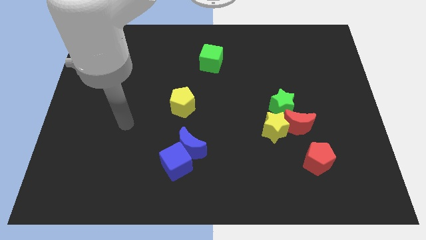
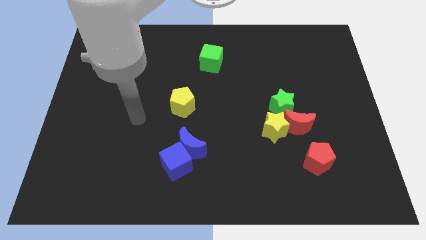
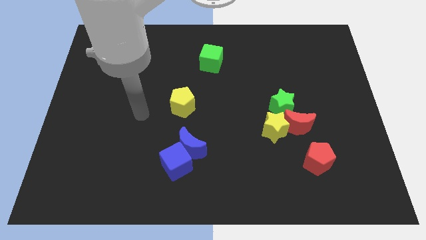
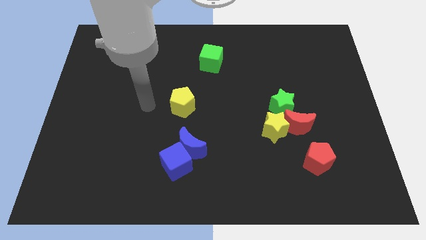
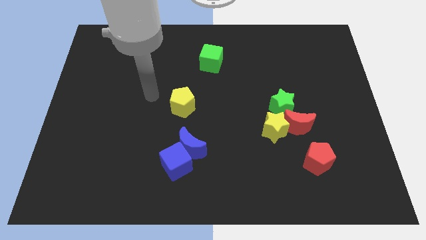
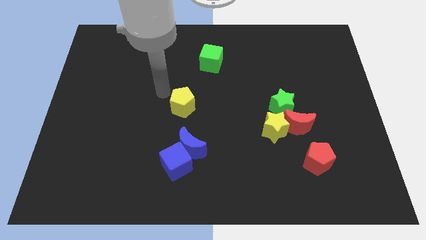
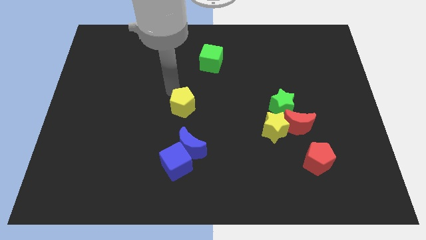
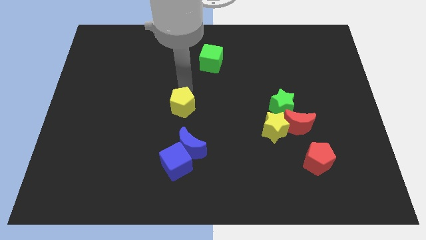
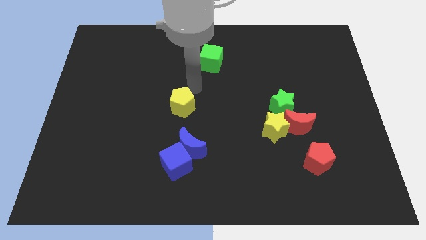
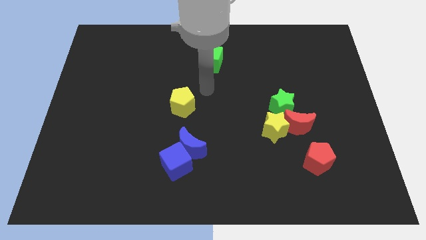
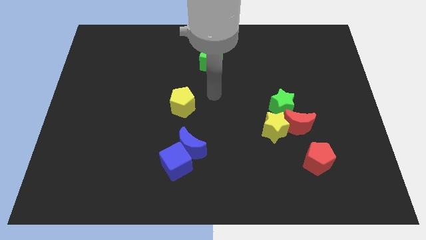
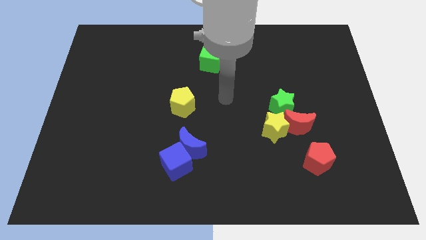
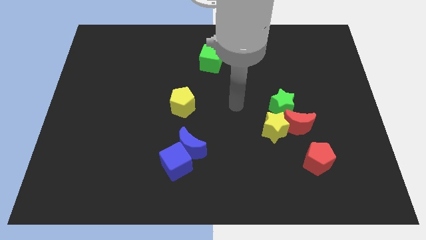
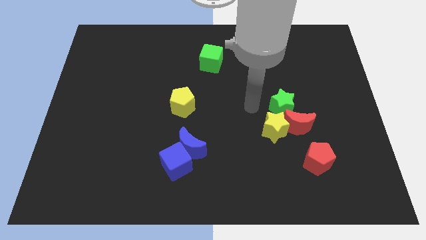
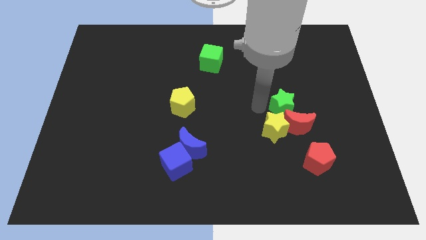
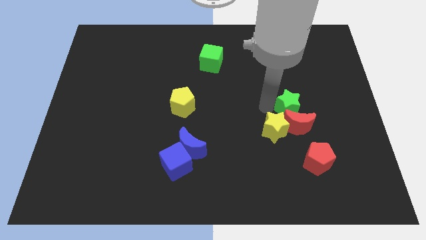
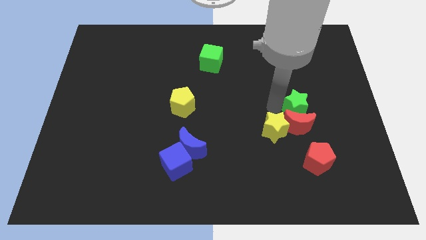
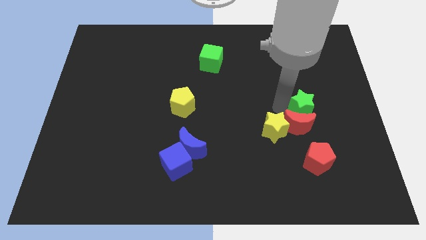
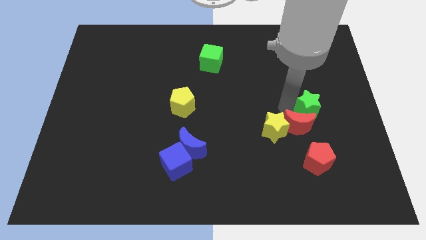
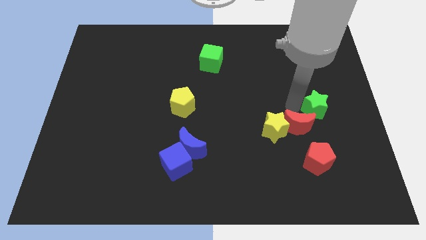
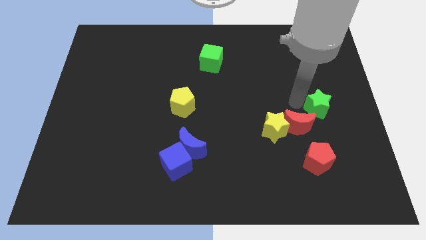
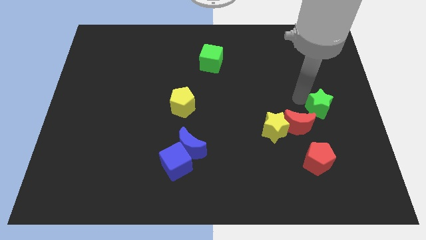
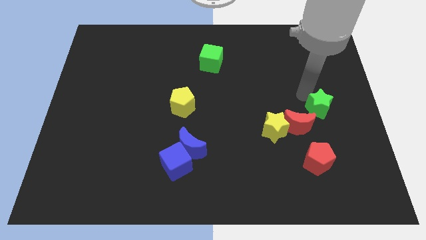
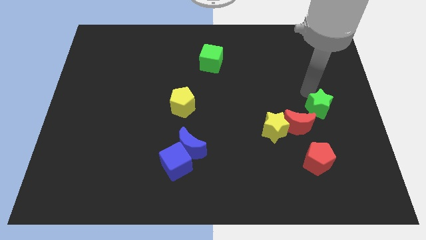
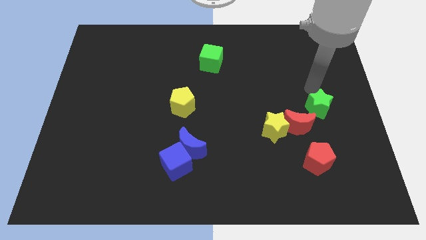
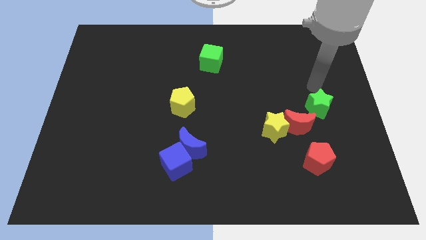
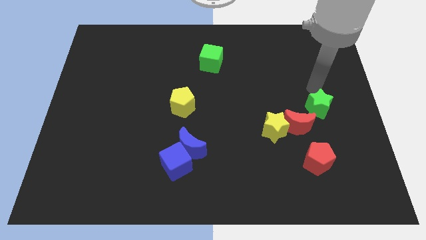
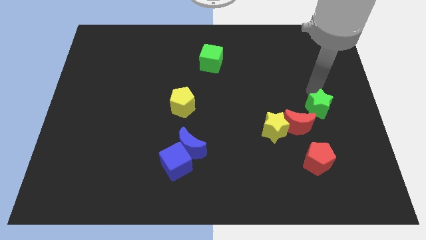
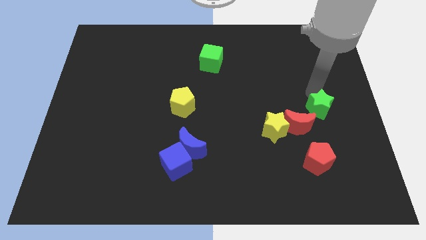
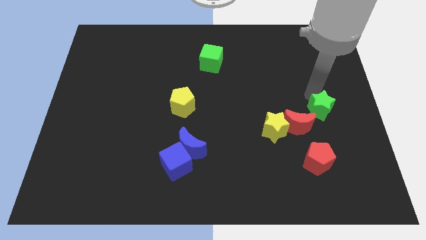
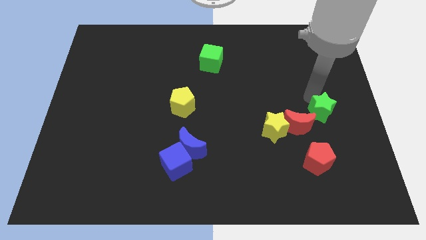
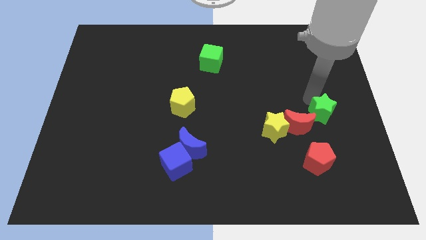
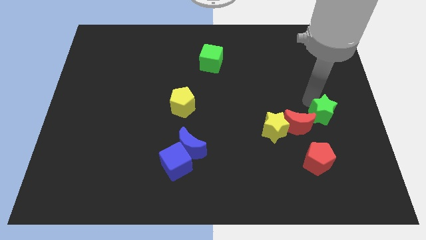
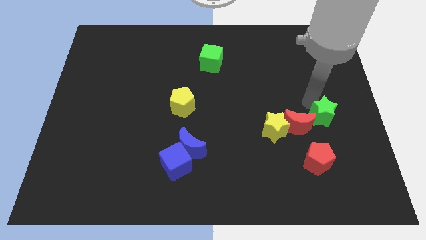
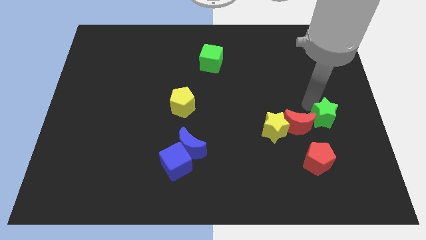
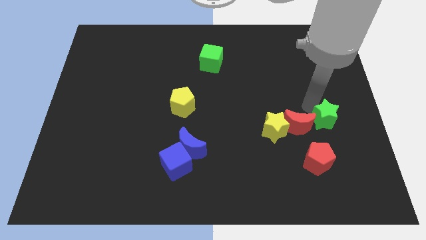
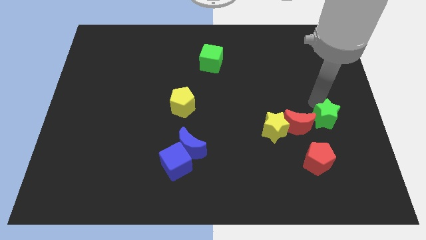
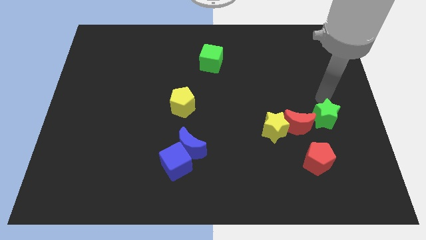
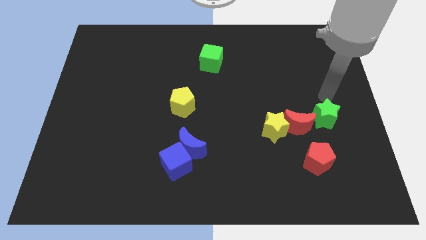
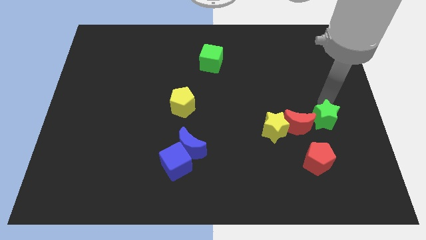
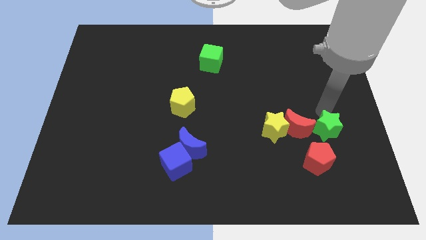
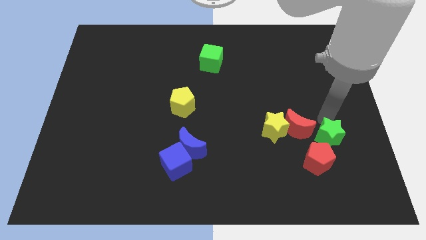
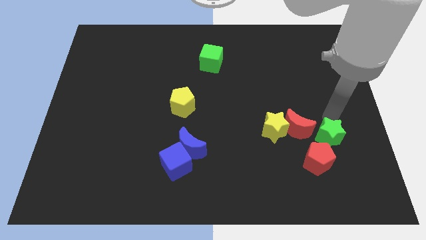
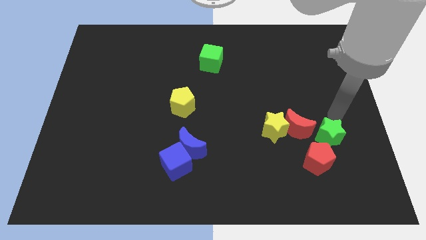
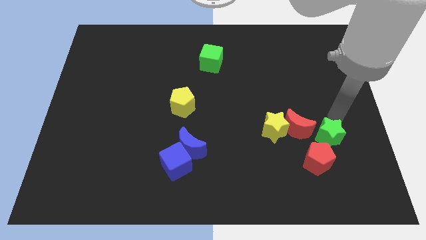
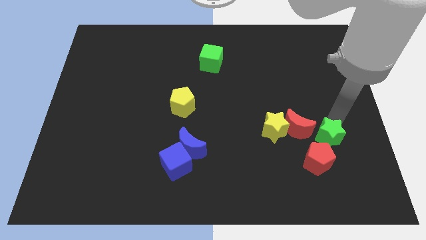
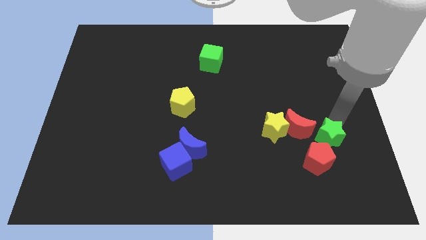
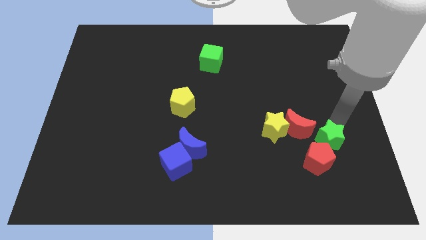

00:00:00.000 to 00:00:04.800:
move the green star towards the red pentagon

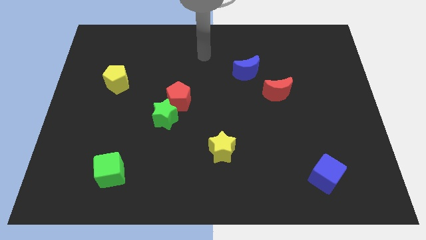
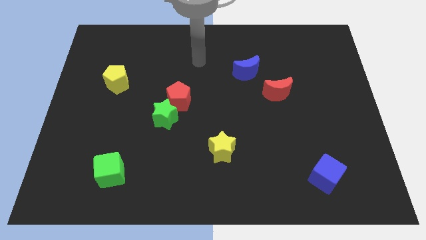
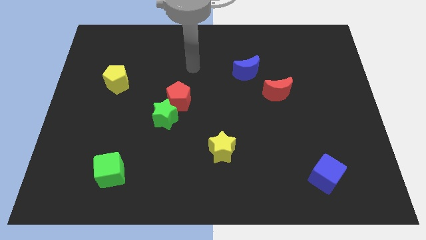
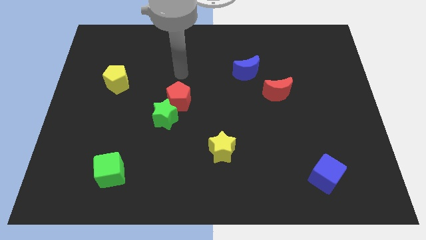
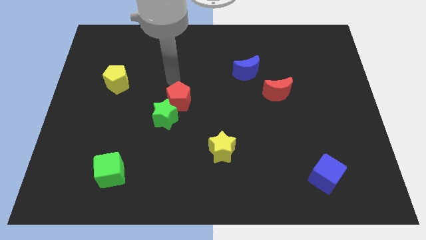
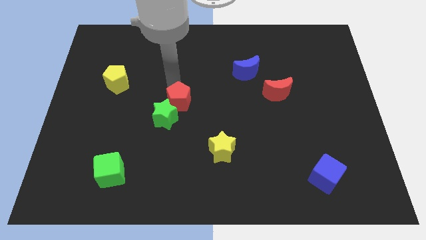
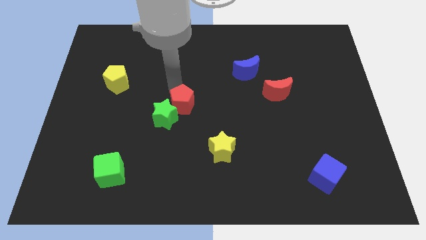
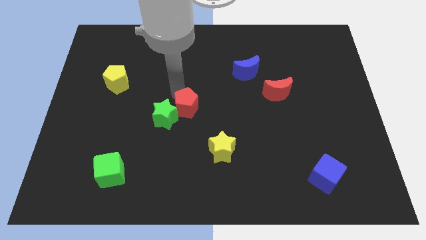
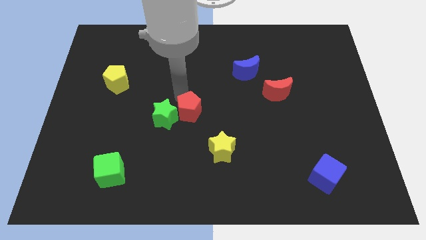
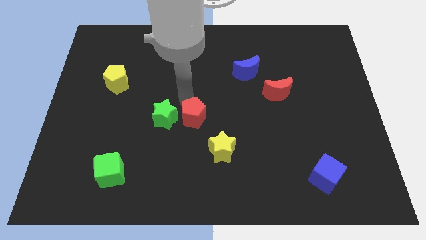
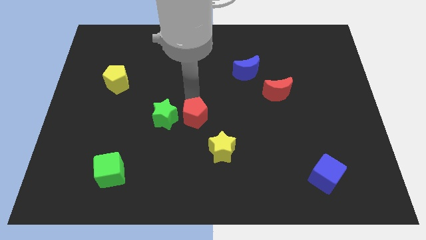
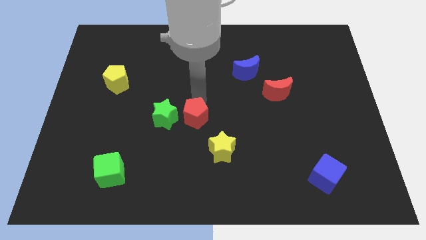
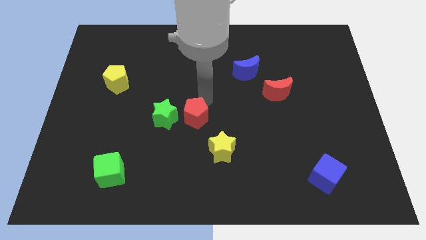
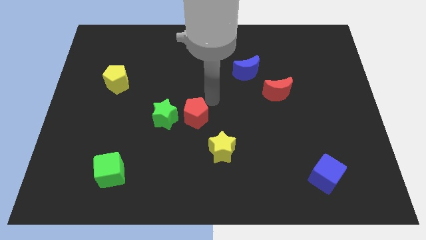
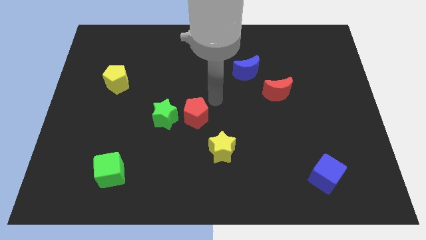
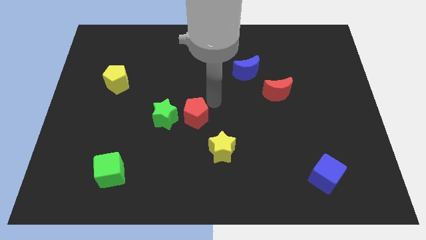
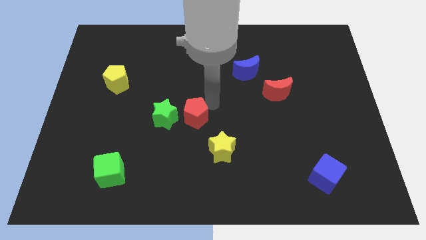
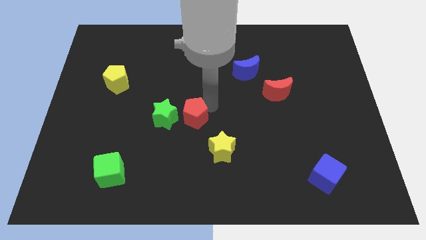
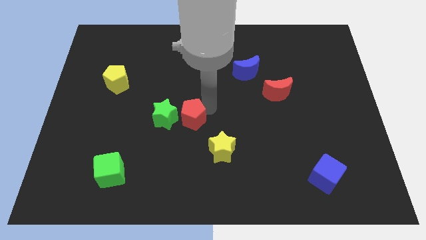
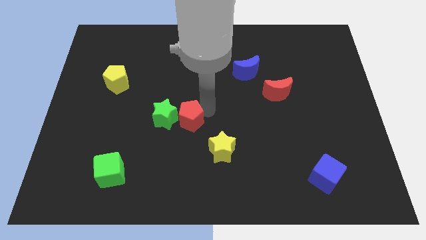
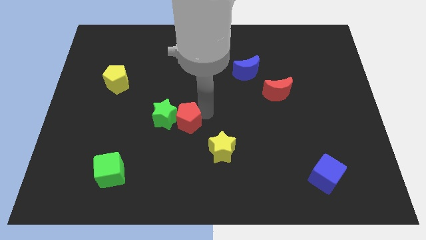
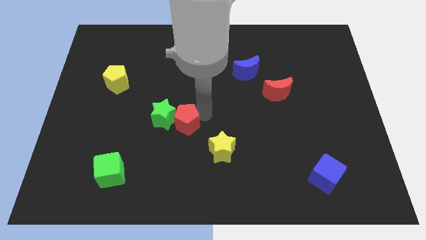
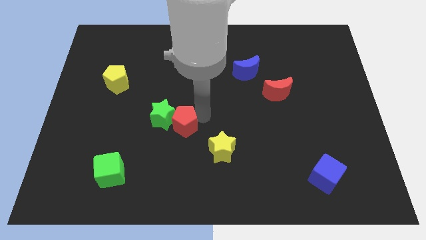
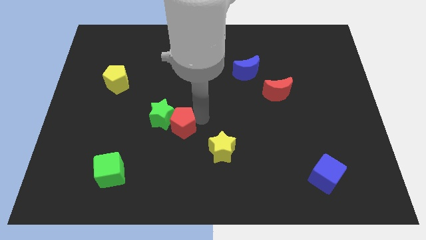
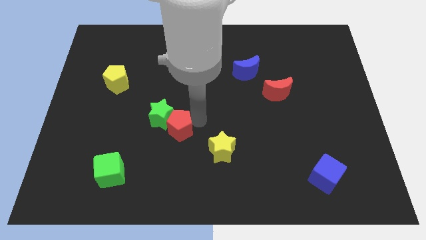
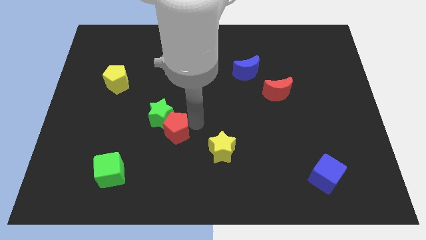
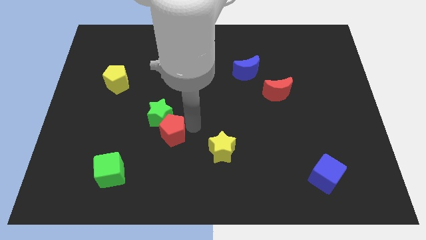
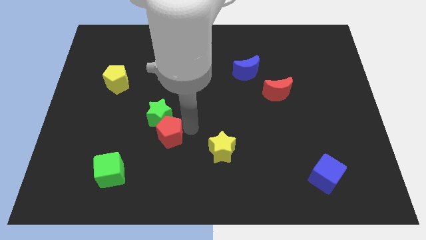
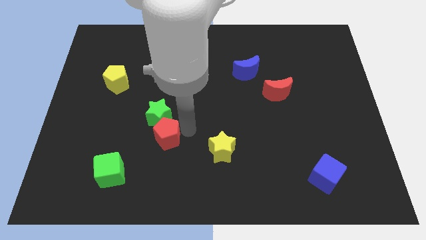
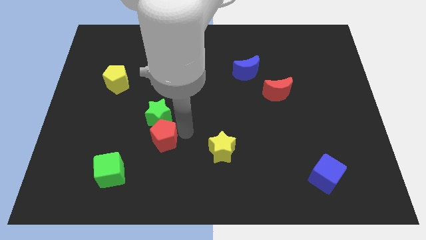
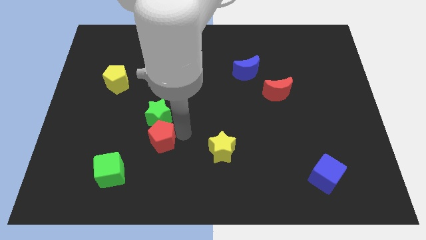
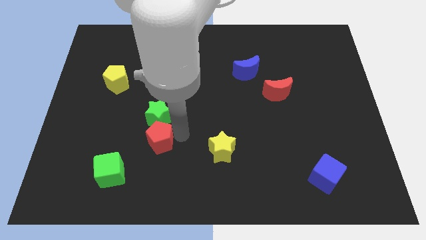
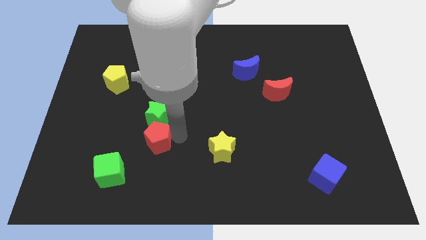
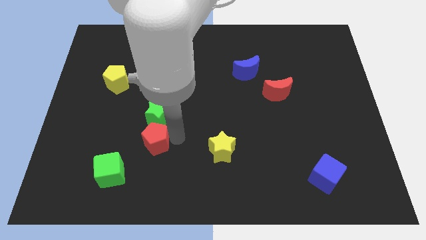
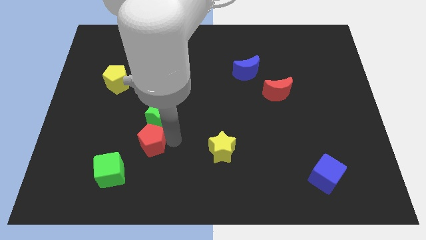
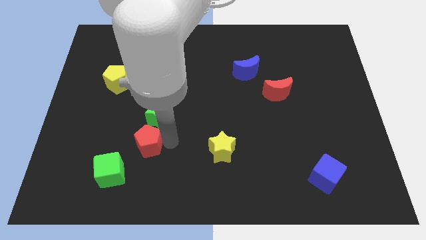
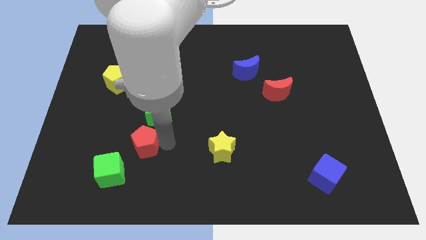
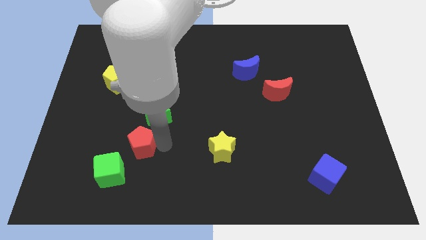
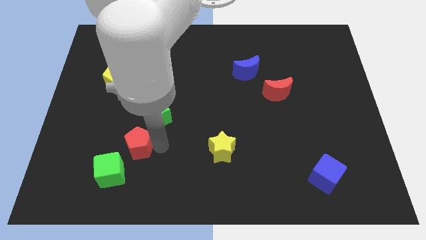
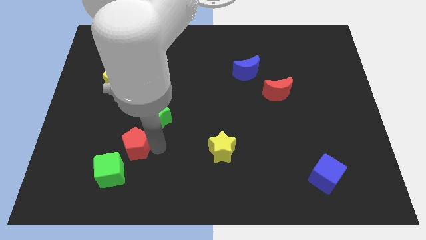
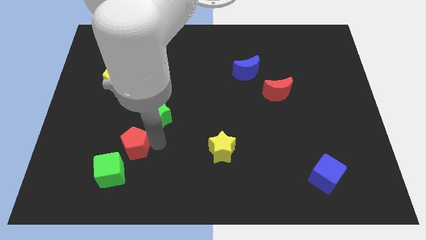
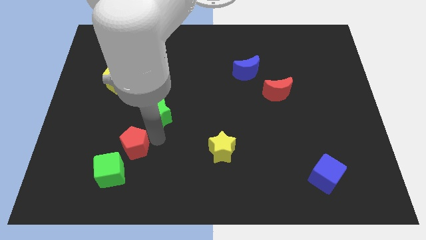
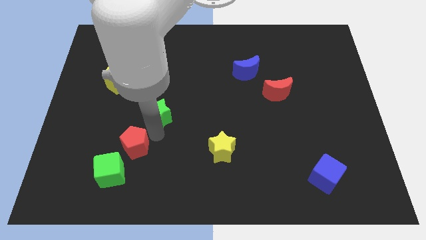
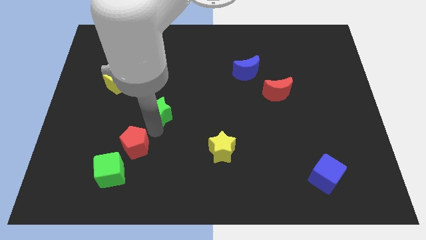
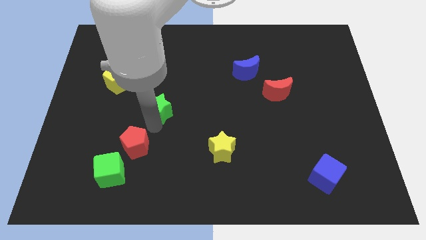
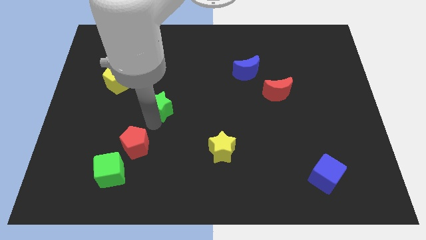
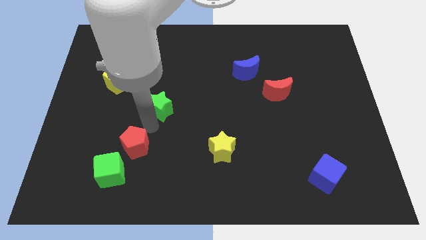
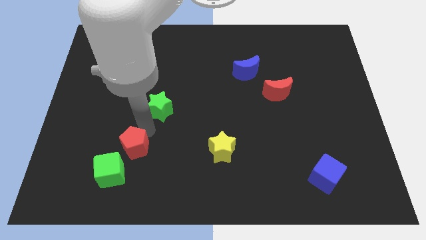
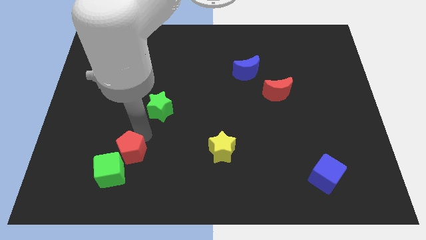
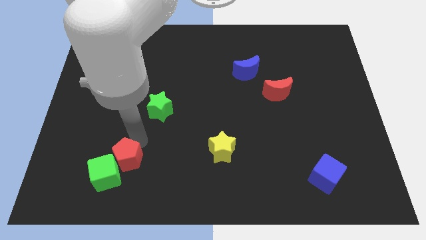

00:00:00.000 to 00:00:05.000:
put the red pentagon to the green cube
